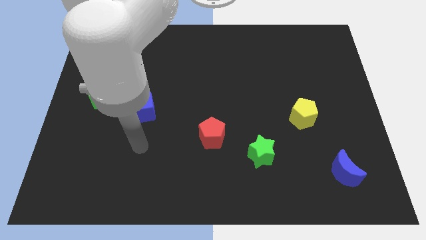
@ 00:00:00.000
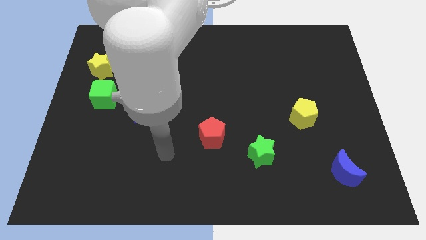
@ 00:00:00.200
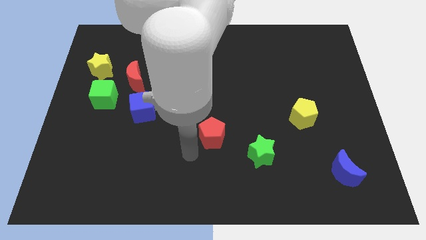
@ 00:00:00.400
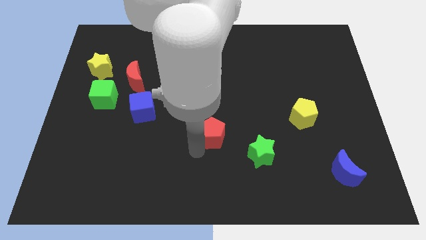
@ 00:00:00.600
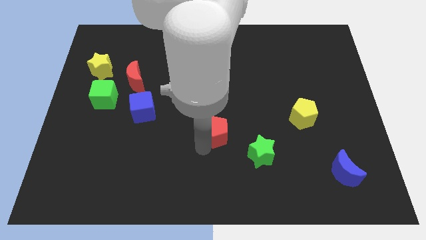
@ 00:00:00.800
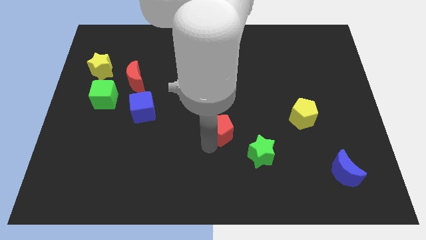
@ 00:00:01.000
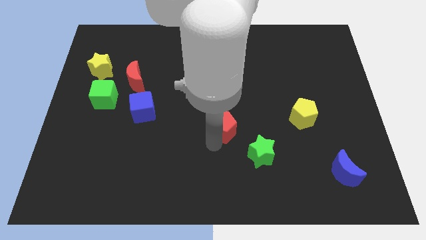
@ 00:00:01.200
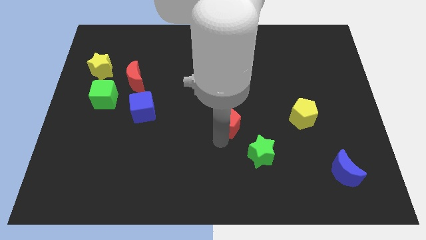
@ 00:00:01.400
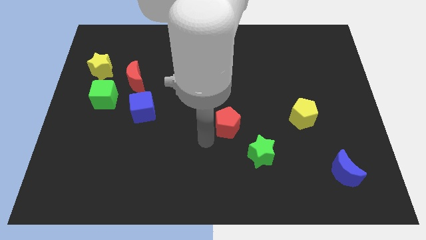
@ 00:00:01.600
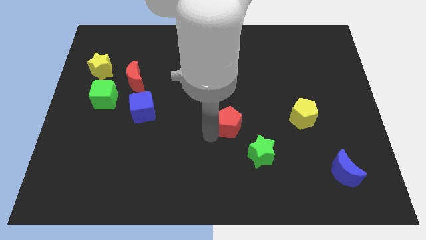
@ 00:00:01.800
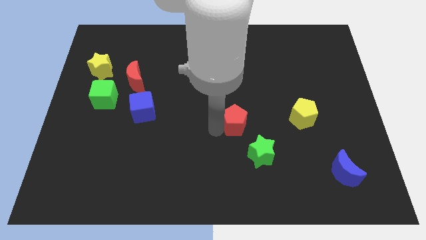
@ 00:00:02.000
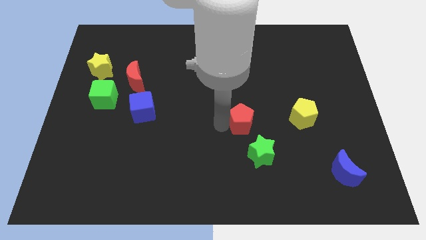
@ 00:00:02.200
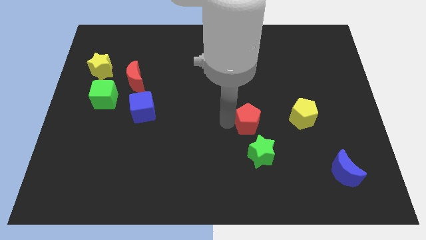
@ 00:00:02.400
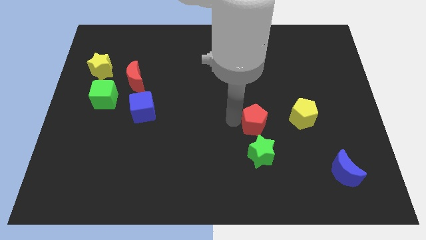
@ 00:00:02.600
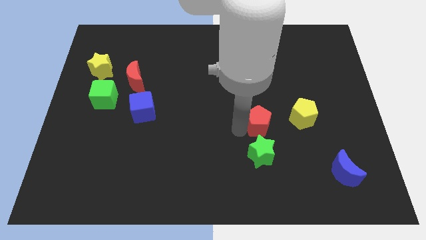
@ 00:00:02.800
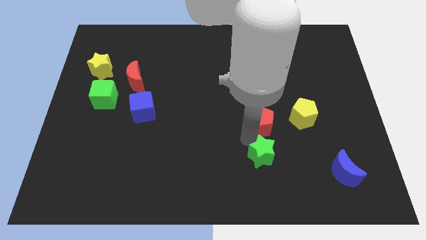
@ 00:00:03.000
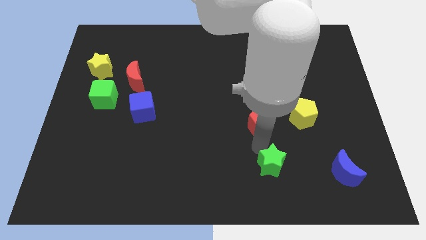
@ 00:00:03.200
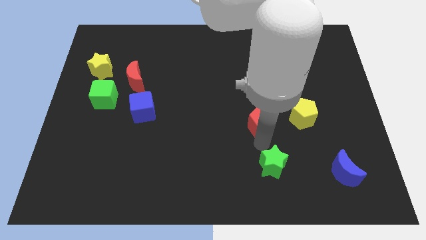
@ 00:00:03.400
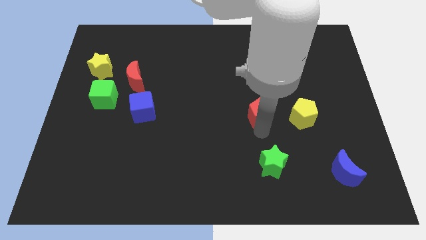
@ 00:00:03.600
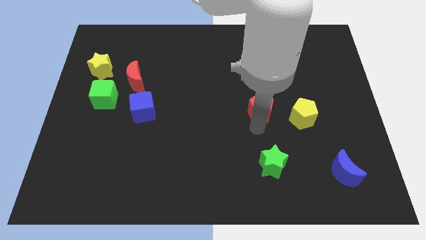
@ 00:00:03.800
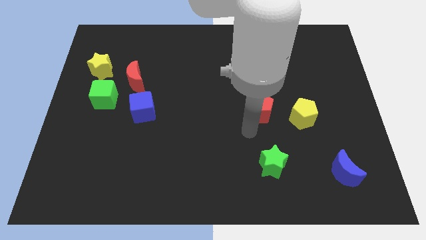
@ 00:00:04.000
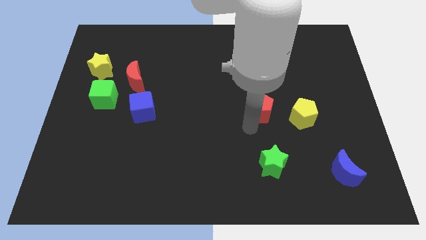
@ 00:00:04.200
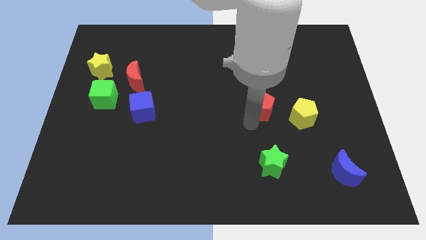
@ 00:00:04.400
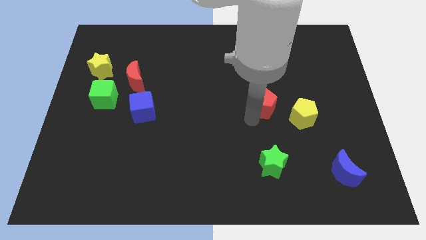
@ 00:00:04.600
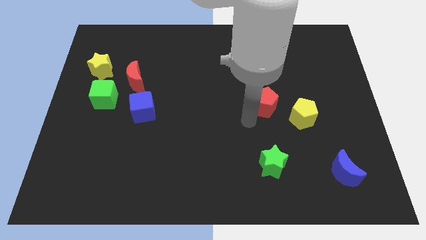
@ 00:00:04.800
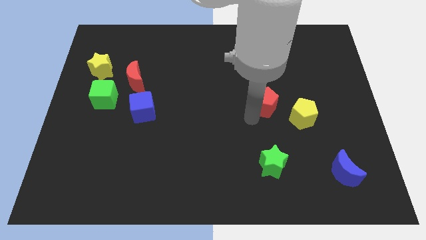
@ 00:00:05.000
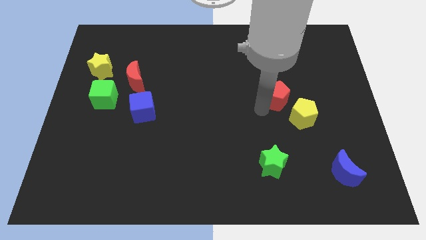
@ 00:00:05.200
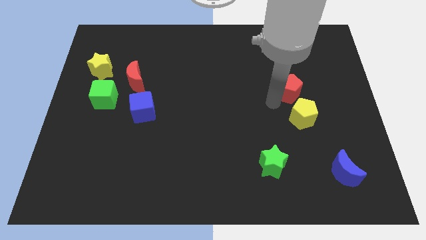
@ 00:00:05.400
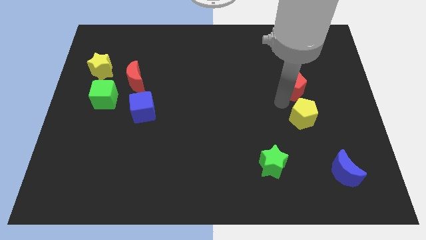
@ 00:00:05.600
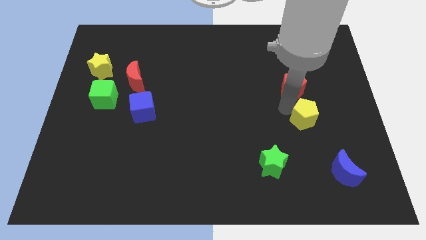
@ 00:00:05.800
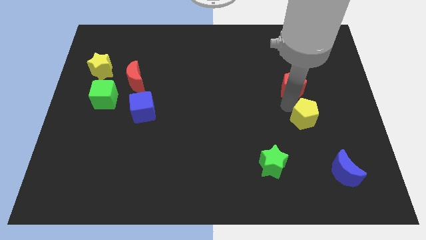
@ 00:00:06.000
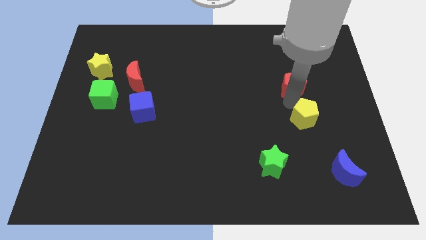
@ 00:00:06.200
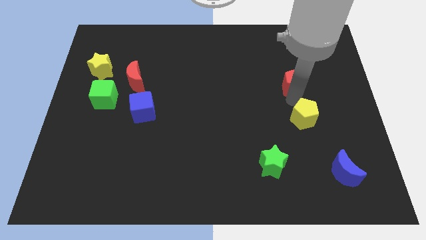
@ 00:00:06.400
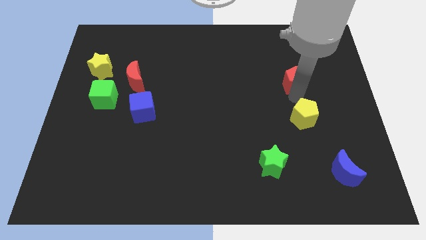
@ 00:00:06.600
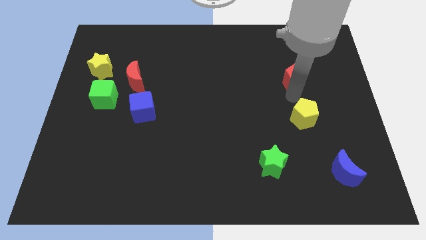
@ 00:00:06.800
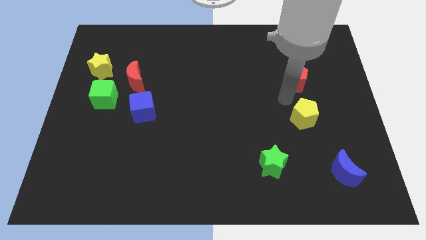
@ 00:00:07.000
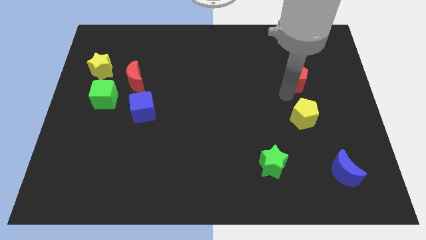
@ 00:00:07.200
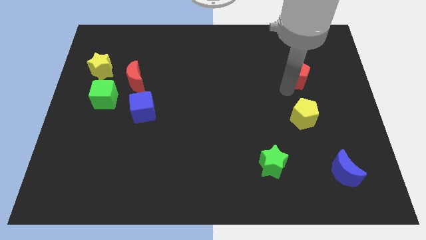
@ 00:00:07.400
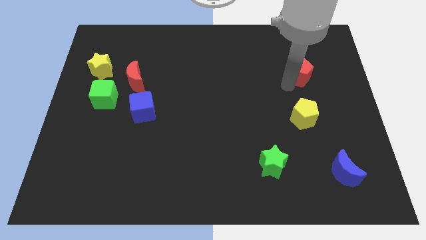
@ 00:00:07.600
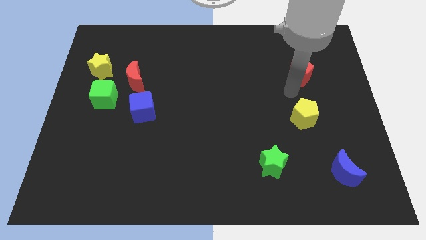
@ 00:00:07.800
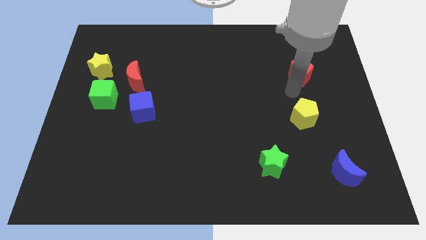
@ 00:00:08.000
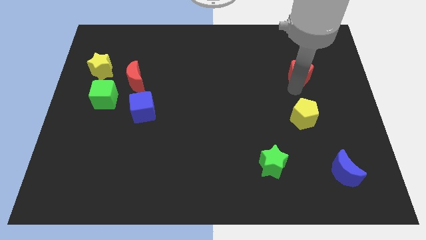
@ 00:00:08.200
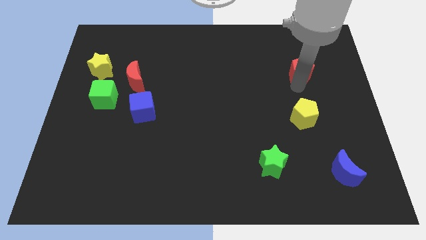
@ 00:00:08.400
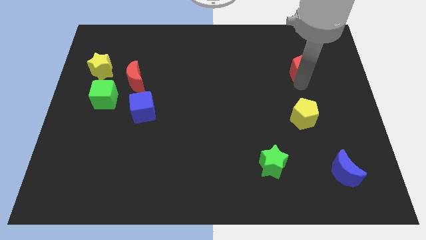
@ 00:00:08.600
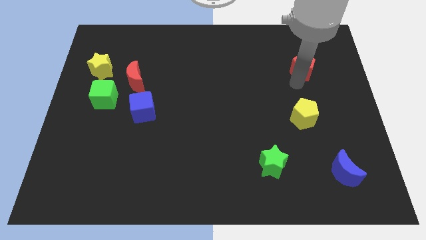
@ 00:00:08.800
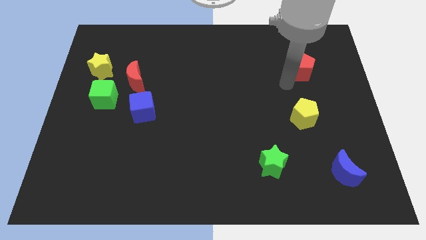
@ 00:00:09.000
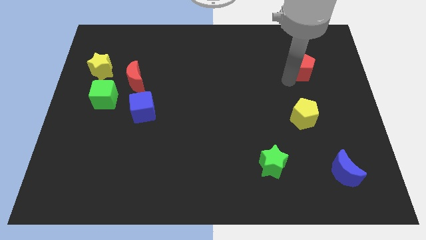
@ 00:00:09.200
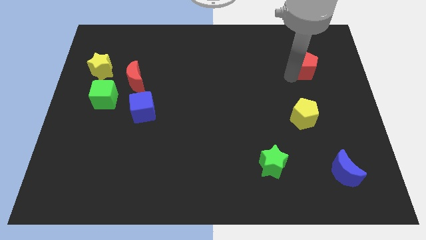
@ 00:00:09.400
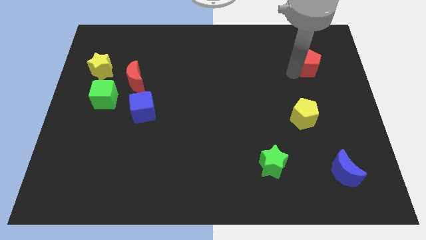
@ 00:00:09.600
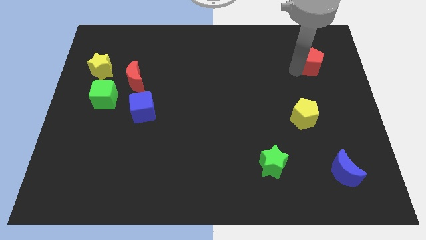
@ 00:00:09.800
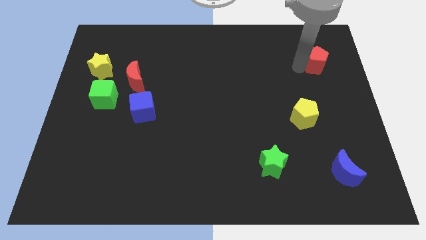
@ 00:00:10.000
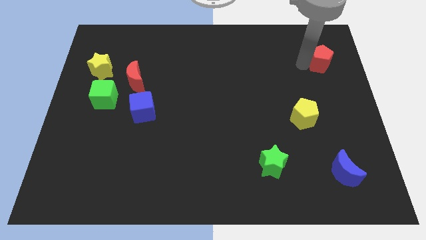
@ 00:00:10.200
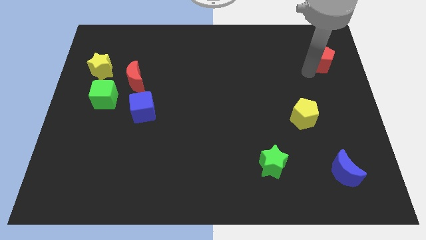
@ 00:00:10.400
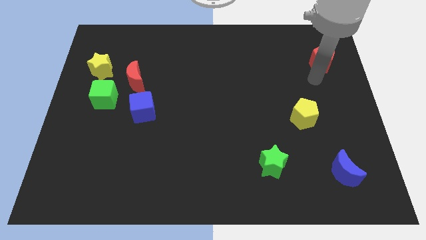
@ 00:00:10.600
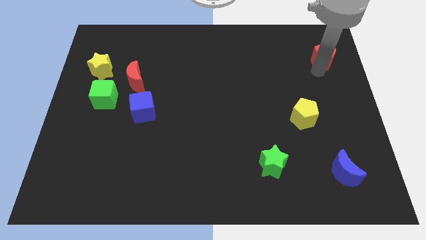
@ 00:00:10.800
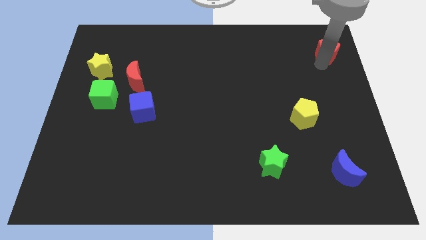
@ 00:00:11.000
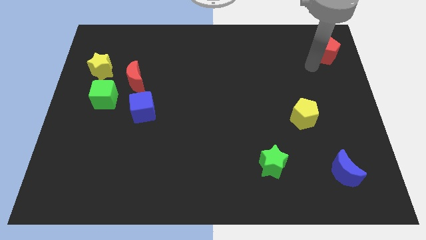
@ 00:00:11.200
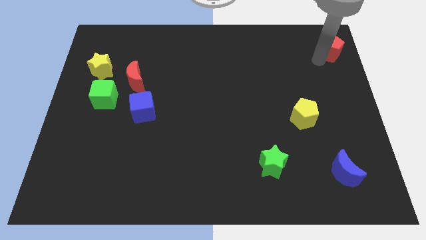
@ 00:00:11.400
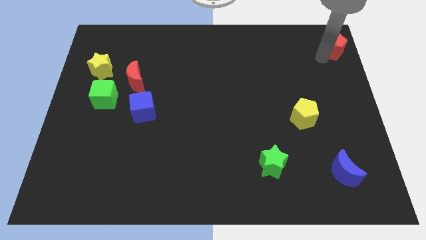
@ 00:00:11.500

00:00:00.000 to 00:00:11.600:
put the red pentagon to the top right of the board
